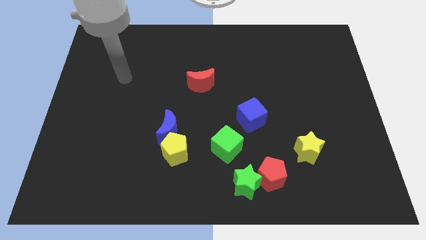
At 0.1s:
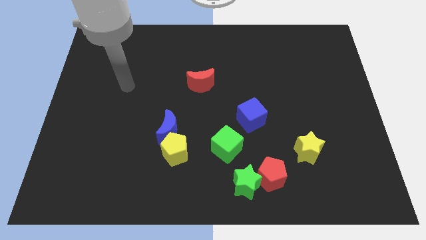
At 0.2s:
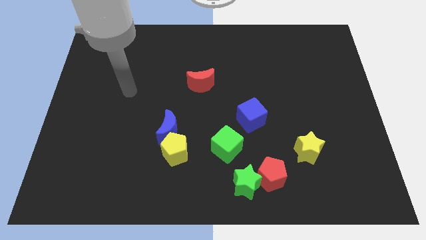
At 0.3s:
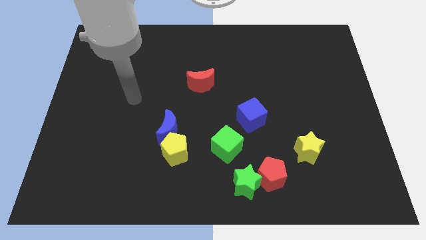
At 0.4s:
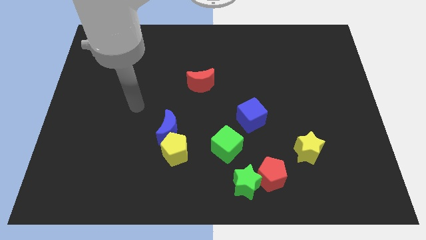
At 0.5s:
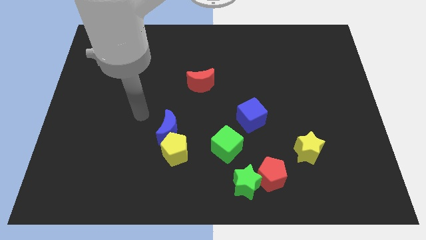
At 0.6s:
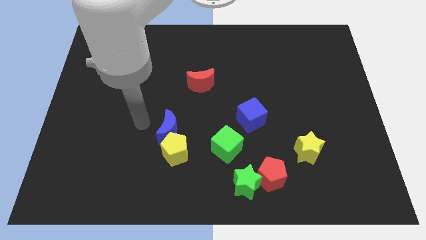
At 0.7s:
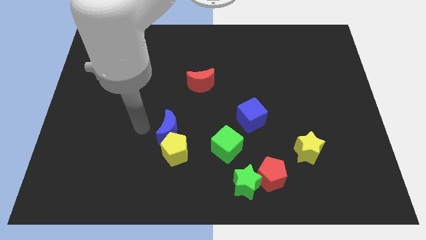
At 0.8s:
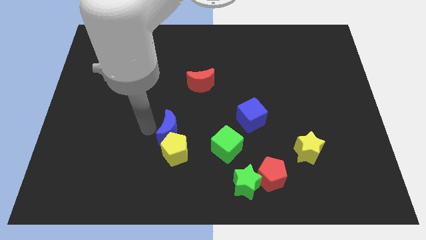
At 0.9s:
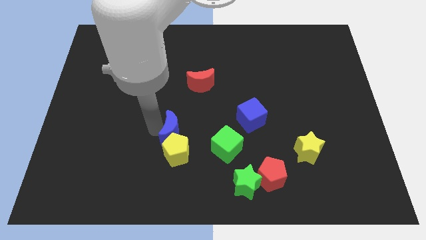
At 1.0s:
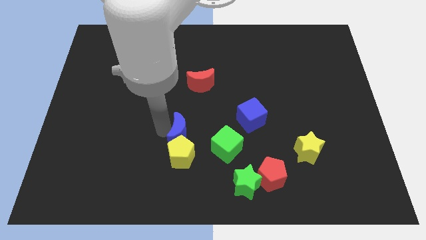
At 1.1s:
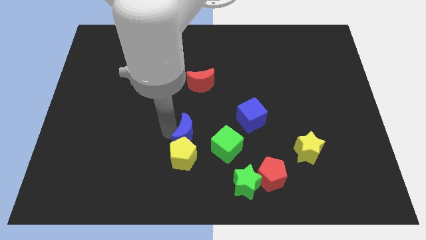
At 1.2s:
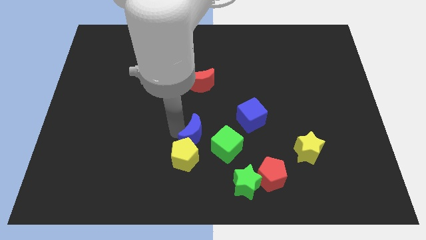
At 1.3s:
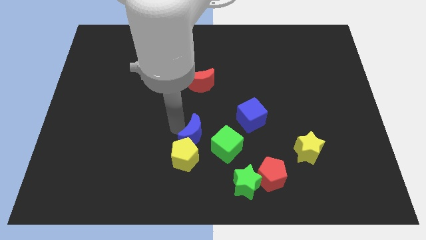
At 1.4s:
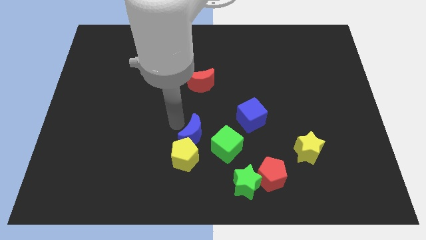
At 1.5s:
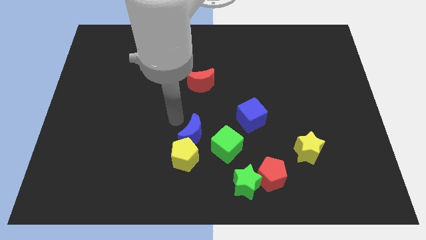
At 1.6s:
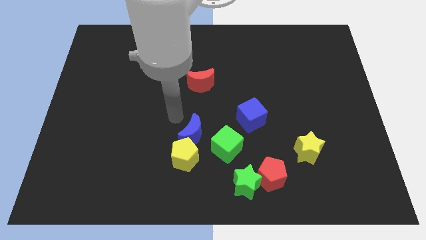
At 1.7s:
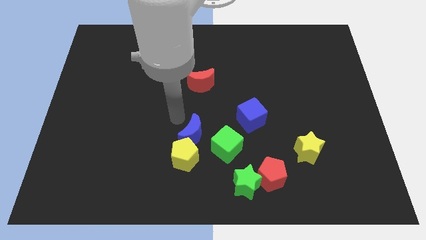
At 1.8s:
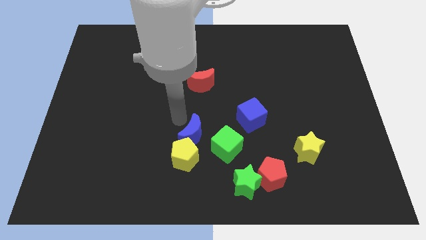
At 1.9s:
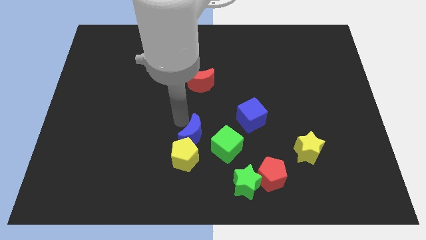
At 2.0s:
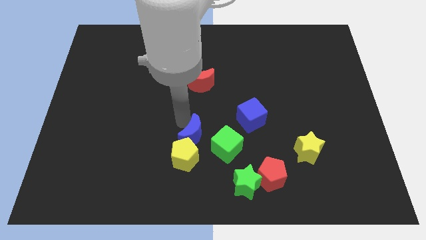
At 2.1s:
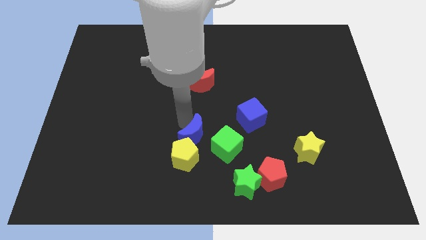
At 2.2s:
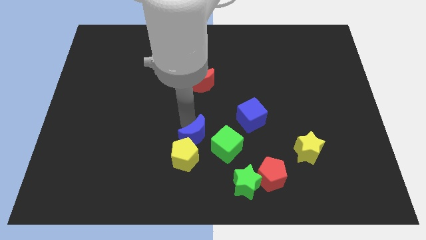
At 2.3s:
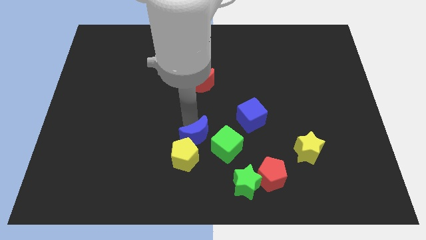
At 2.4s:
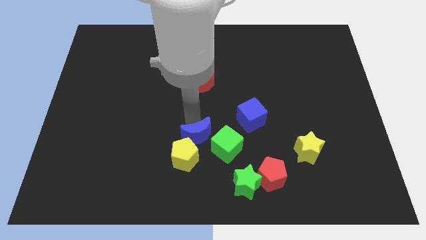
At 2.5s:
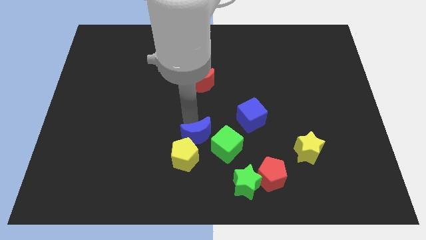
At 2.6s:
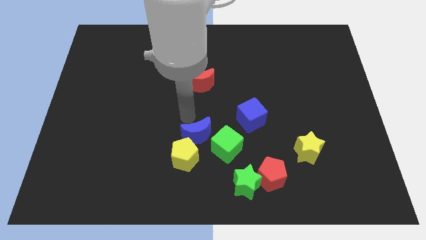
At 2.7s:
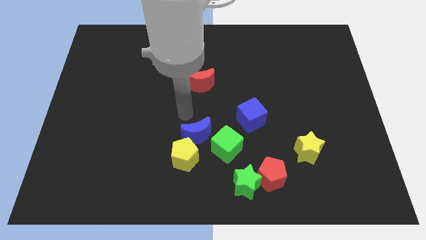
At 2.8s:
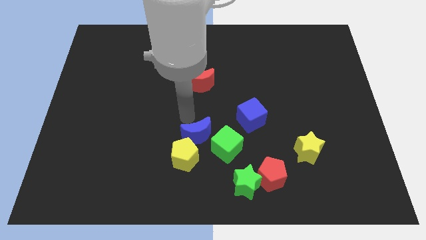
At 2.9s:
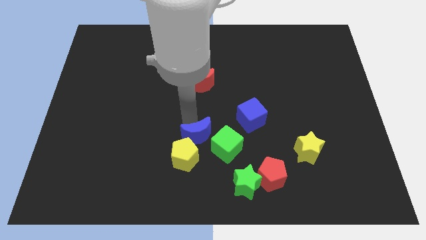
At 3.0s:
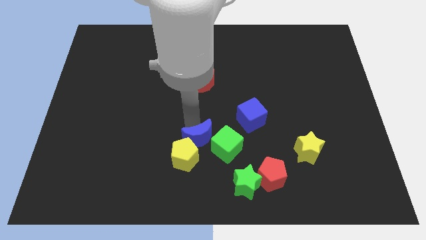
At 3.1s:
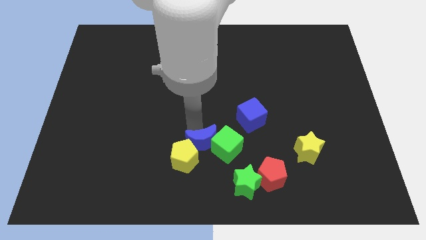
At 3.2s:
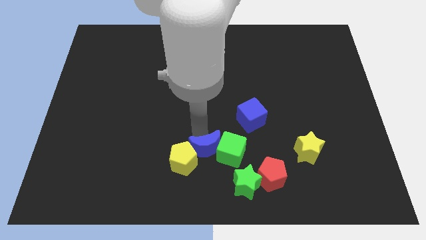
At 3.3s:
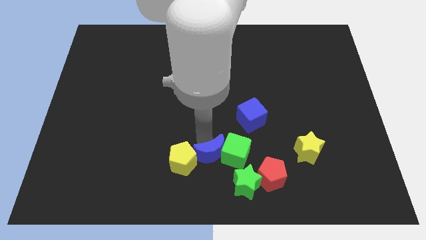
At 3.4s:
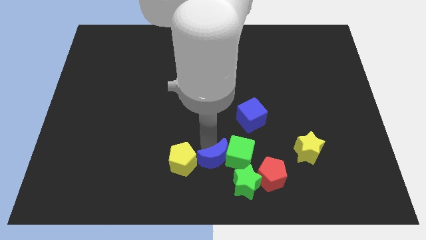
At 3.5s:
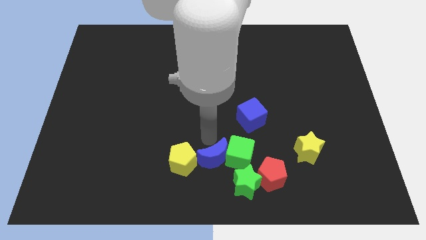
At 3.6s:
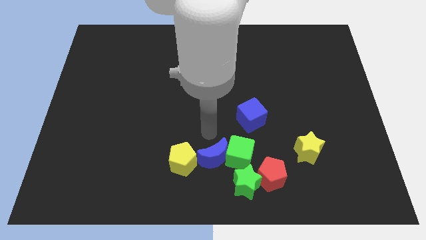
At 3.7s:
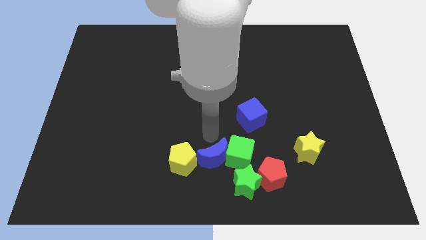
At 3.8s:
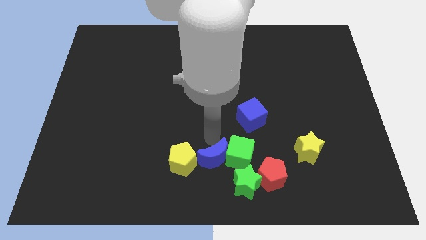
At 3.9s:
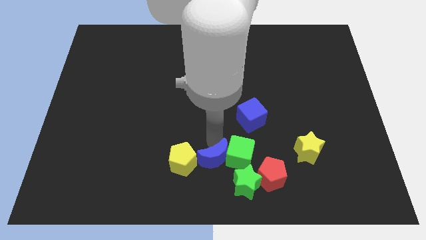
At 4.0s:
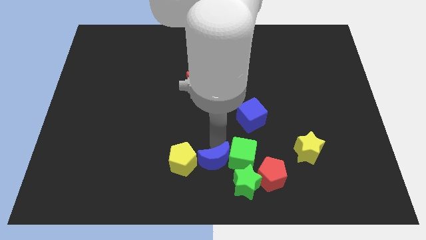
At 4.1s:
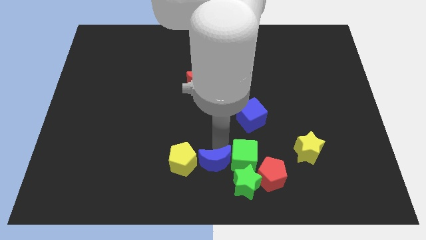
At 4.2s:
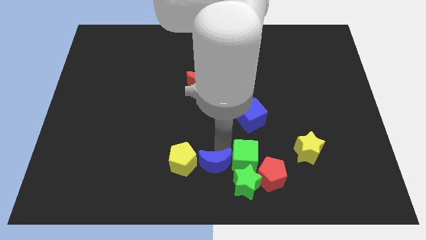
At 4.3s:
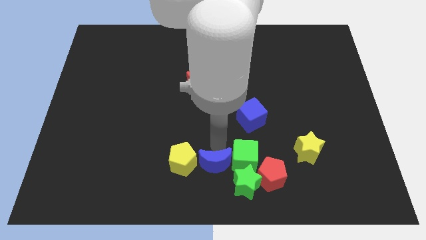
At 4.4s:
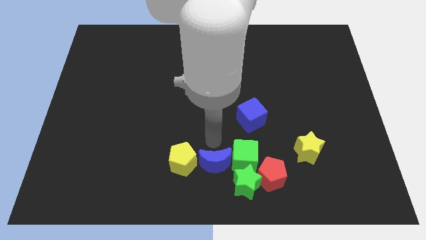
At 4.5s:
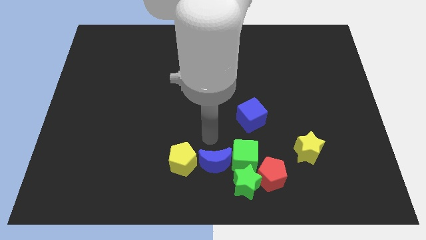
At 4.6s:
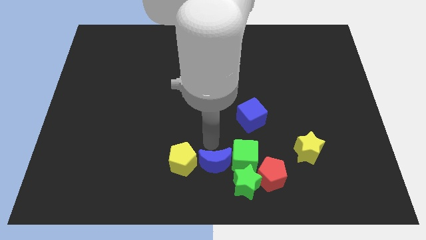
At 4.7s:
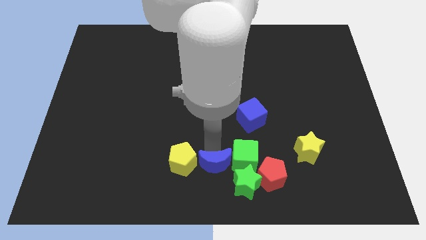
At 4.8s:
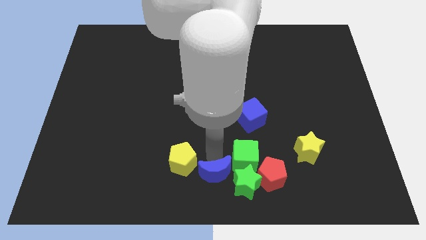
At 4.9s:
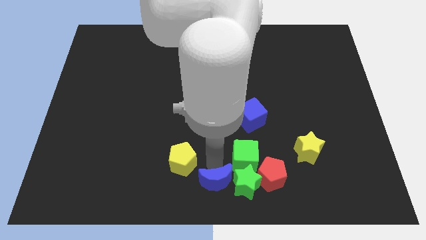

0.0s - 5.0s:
push the blue moon towards the green star

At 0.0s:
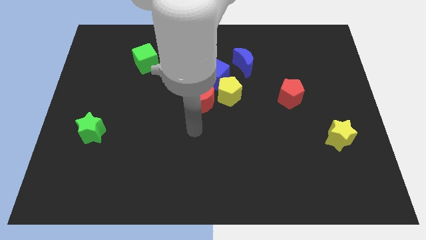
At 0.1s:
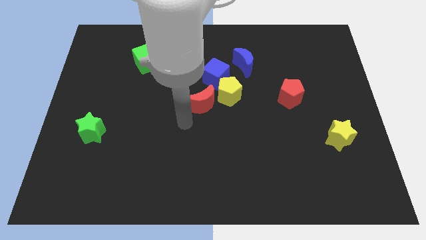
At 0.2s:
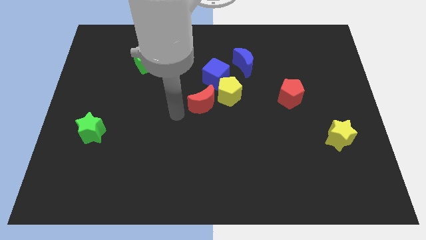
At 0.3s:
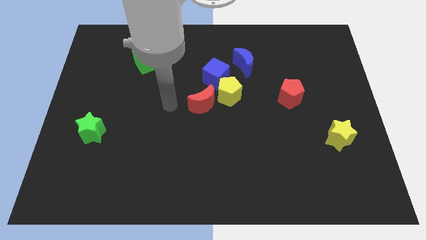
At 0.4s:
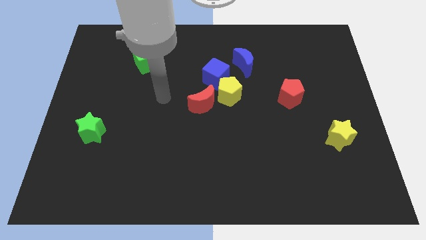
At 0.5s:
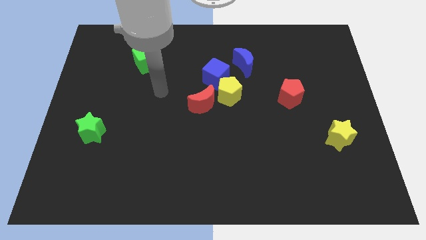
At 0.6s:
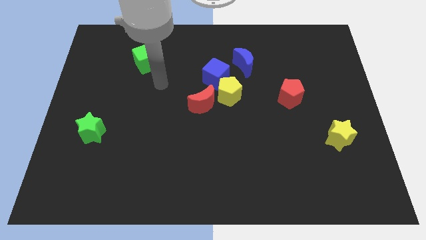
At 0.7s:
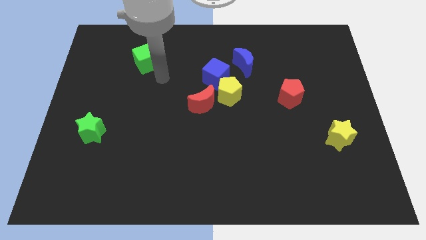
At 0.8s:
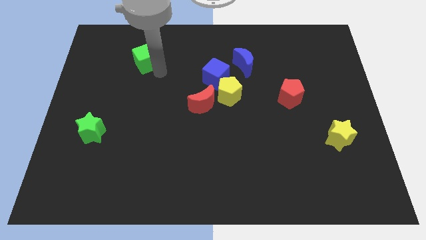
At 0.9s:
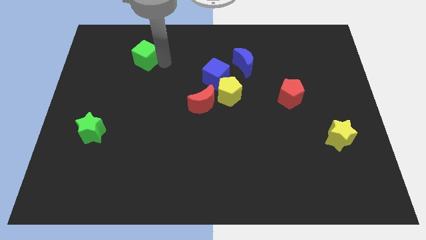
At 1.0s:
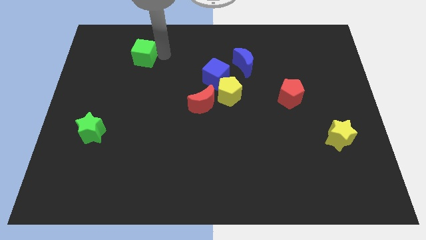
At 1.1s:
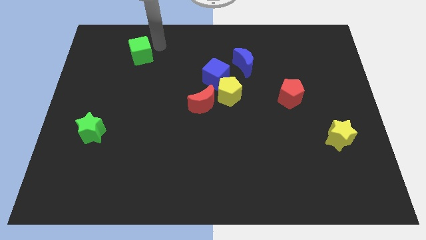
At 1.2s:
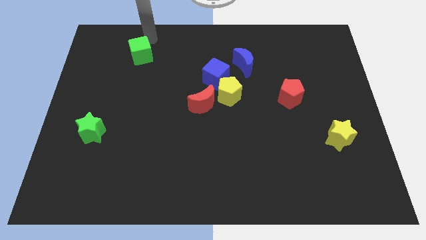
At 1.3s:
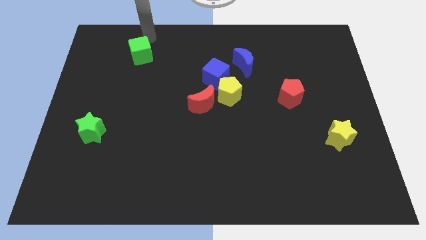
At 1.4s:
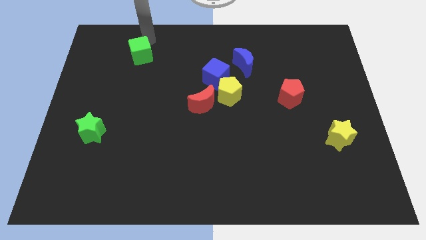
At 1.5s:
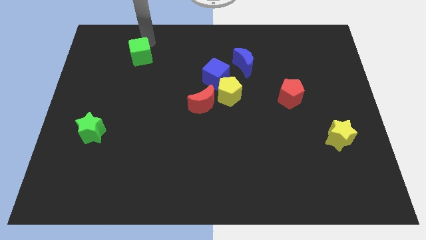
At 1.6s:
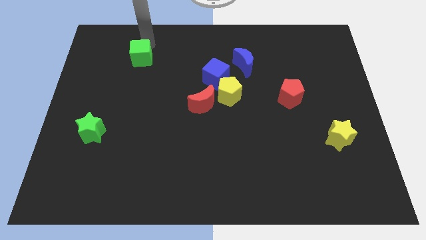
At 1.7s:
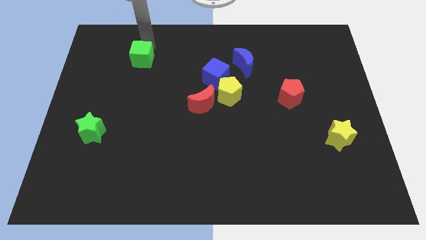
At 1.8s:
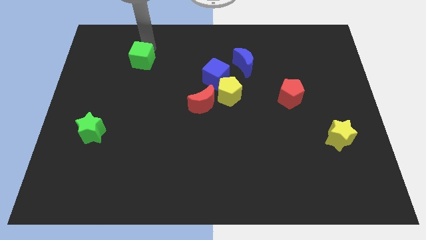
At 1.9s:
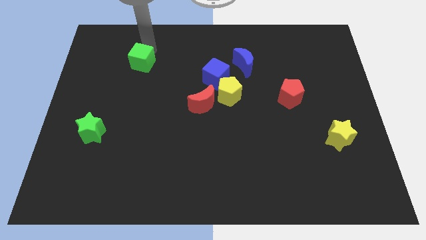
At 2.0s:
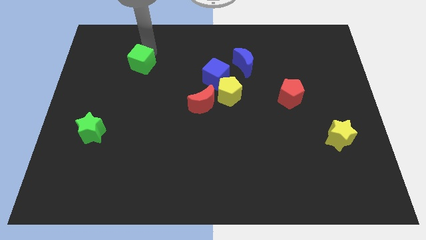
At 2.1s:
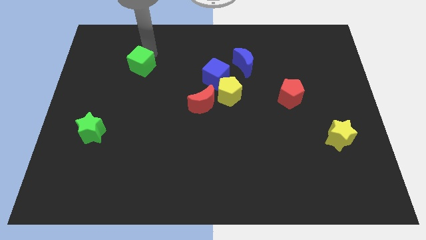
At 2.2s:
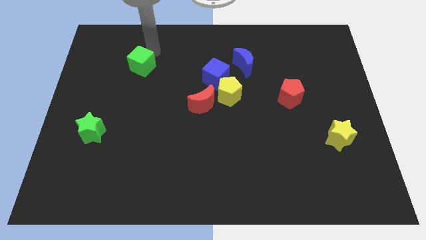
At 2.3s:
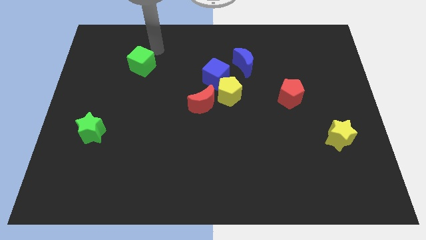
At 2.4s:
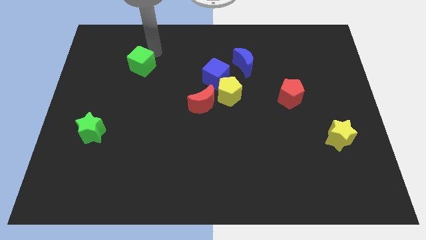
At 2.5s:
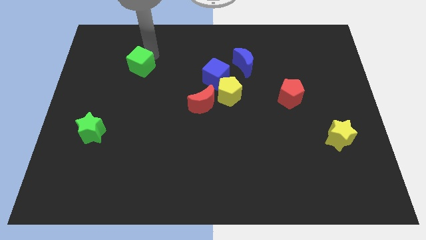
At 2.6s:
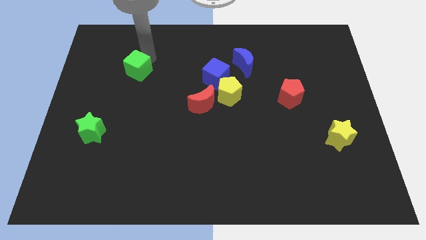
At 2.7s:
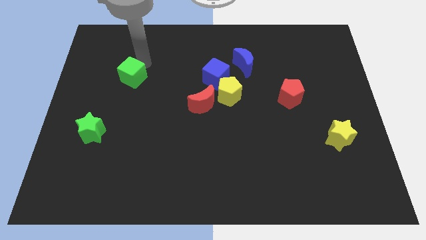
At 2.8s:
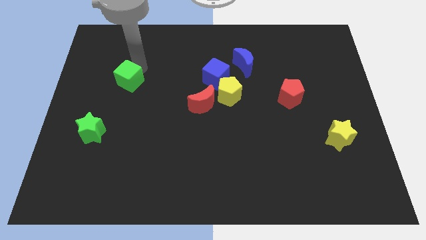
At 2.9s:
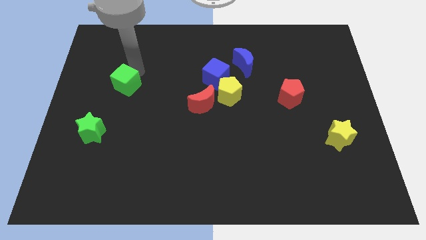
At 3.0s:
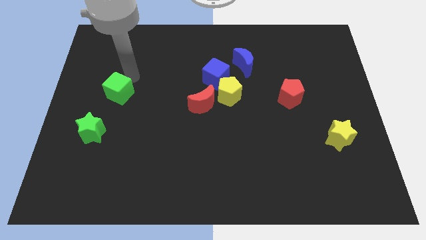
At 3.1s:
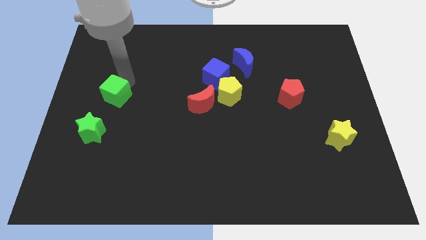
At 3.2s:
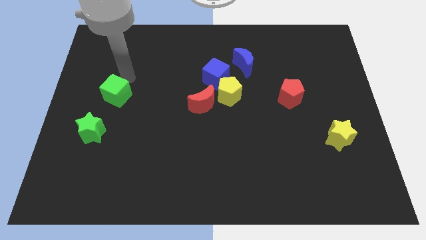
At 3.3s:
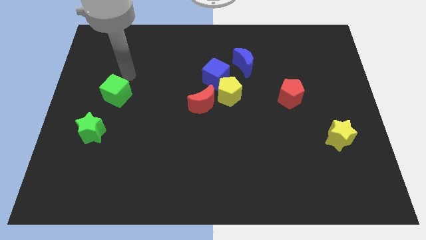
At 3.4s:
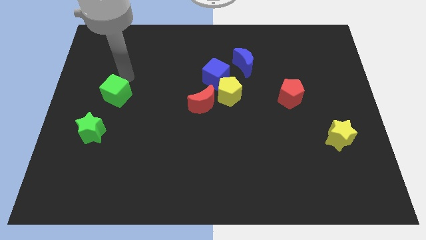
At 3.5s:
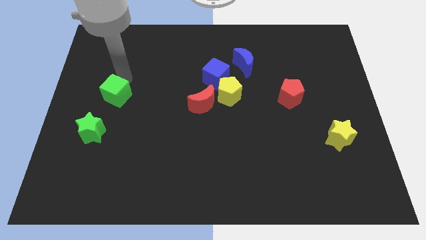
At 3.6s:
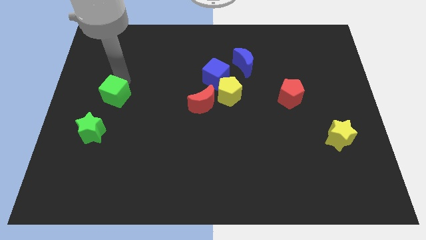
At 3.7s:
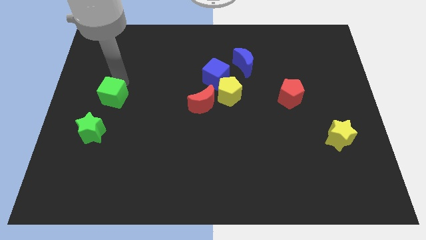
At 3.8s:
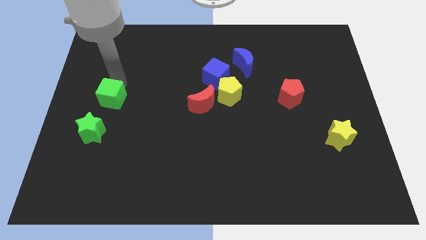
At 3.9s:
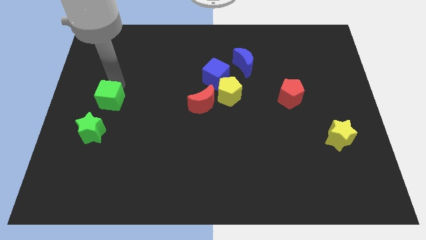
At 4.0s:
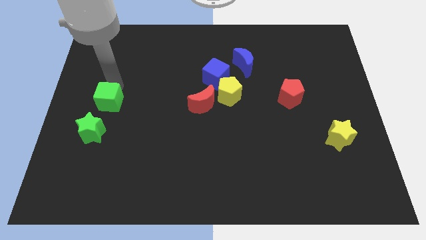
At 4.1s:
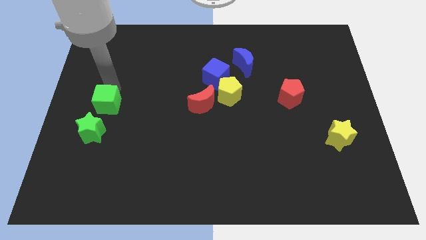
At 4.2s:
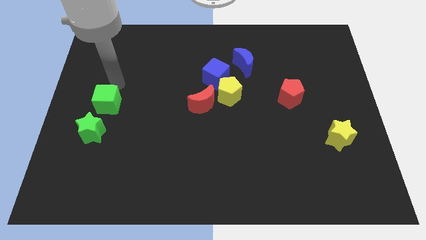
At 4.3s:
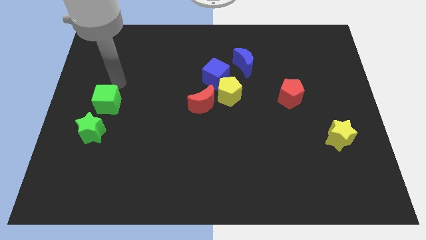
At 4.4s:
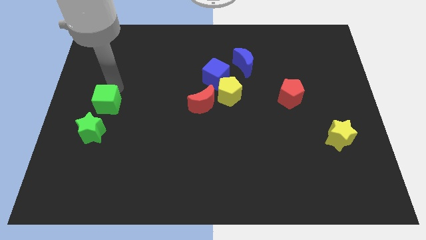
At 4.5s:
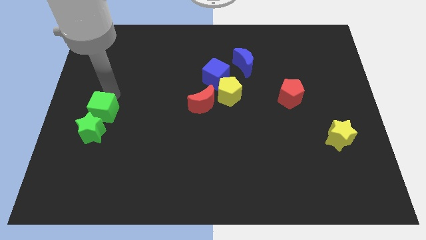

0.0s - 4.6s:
push the green cube close to the green star
